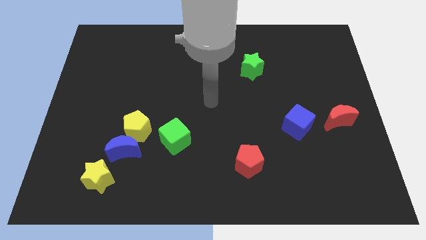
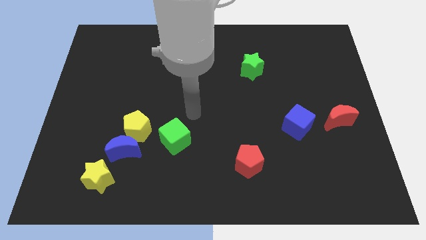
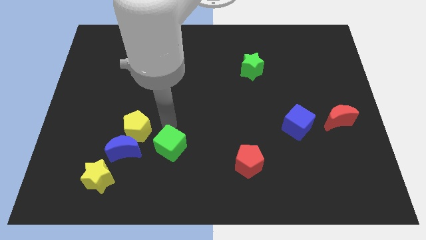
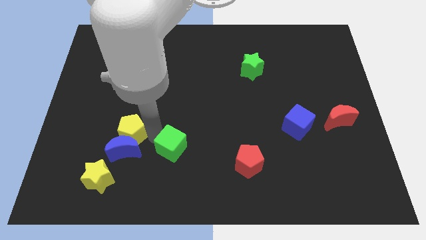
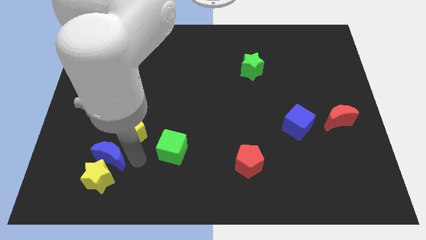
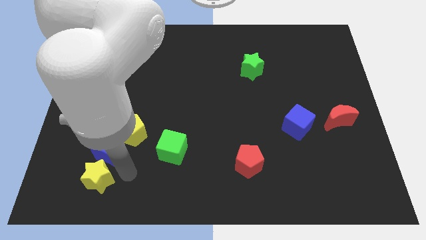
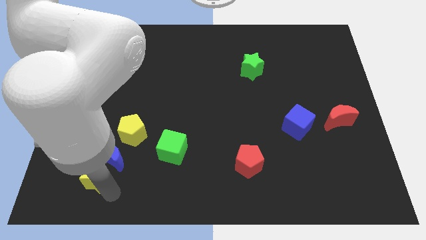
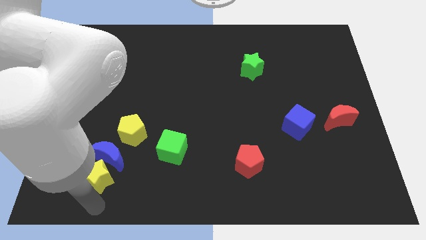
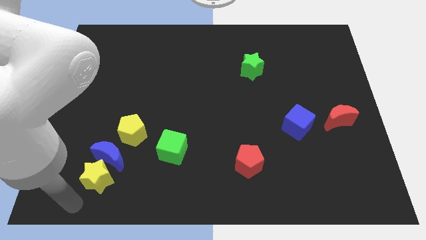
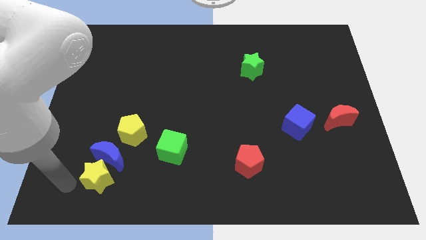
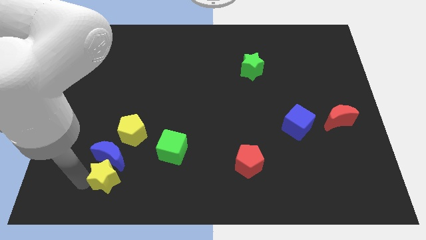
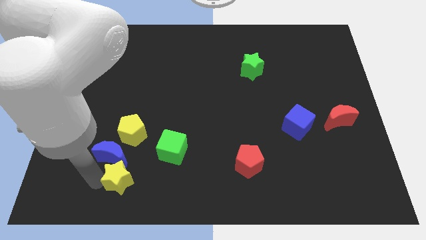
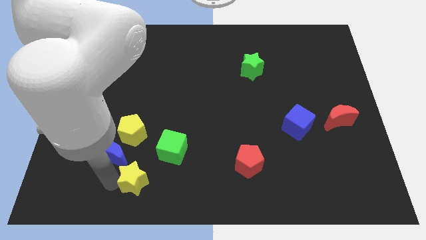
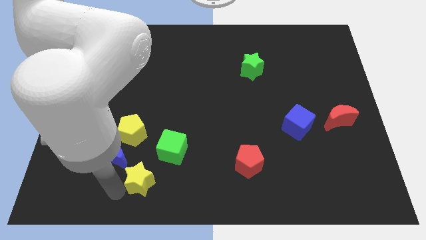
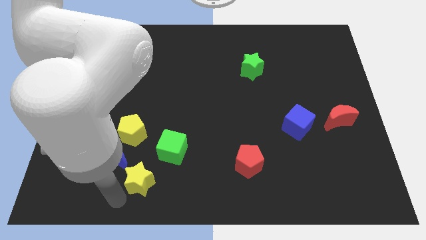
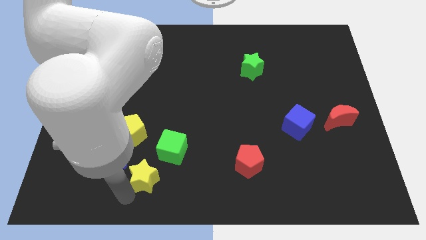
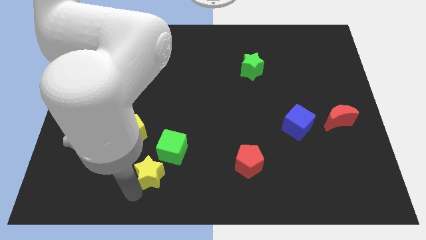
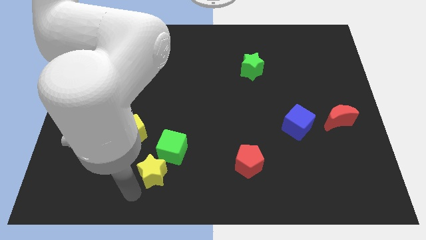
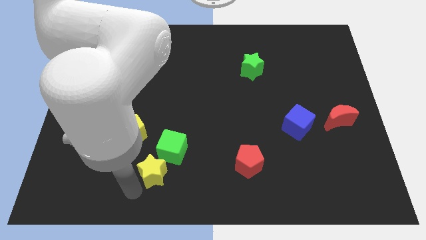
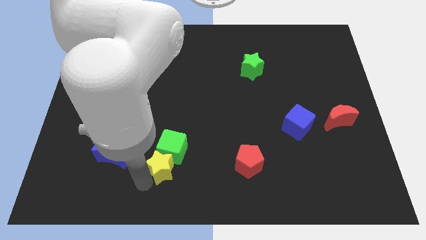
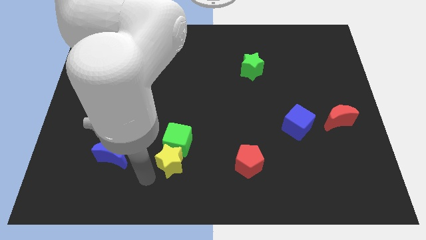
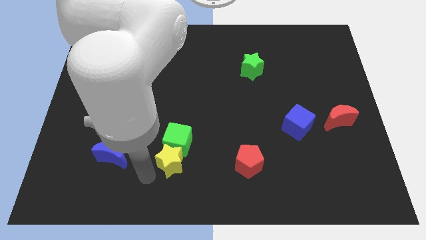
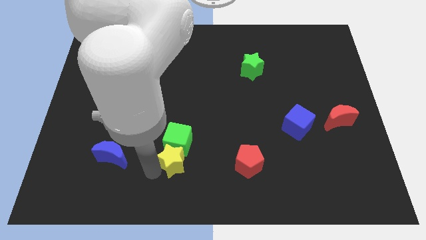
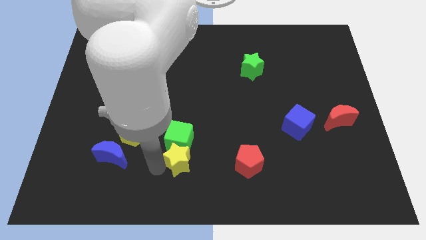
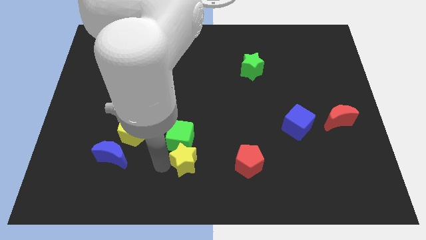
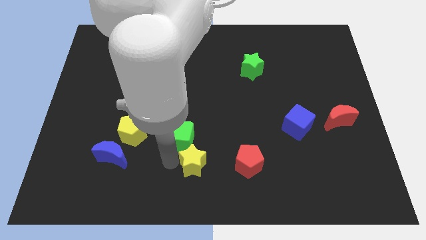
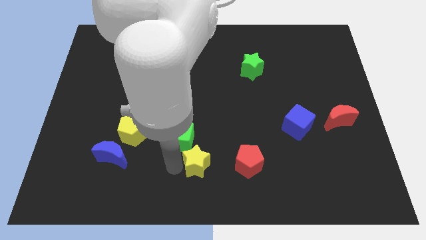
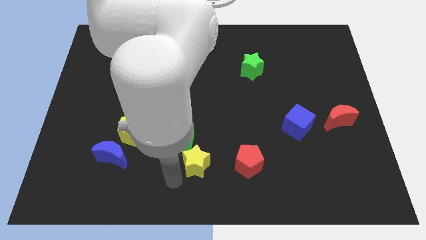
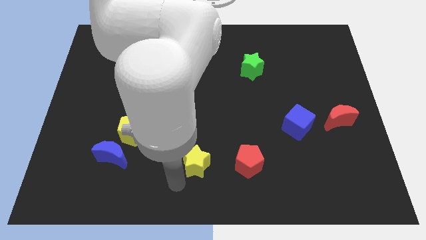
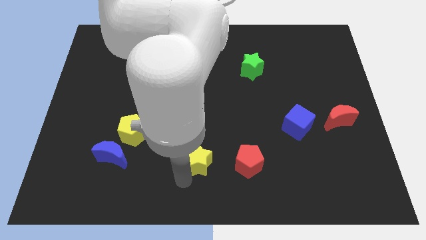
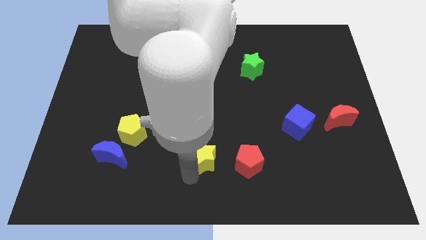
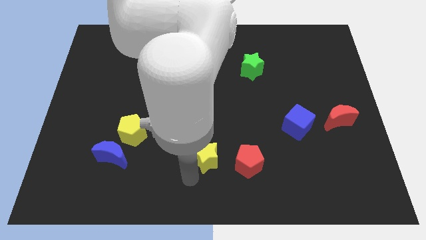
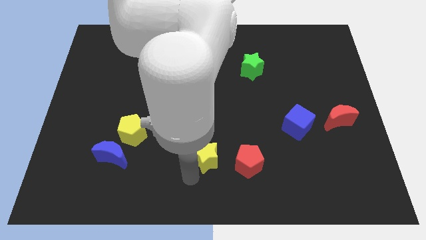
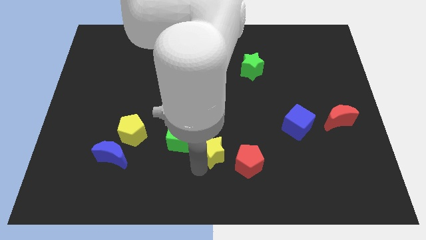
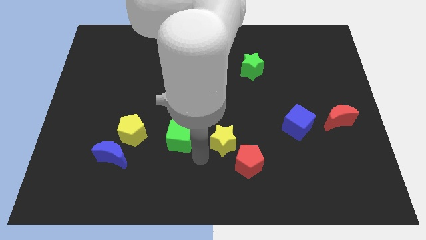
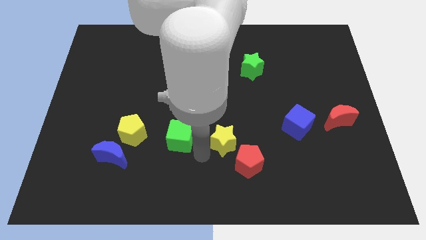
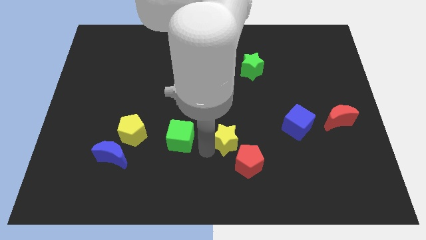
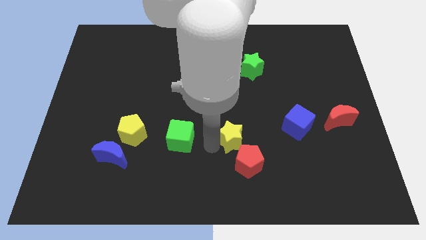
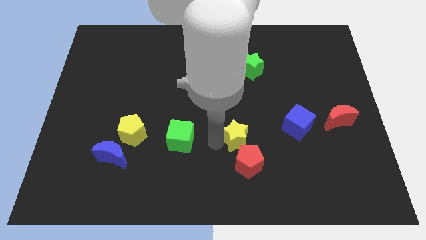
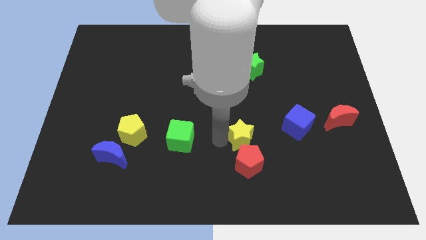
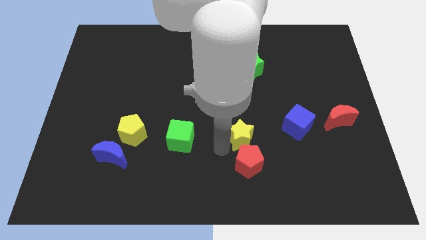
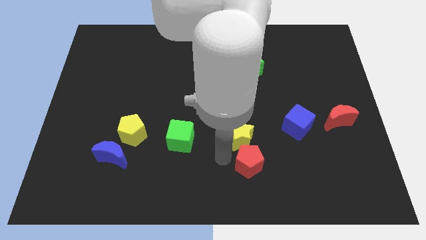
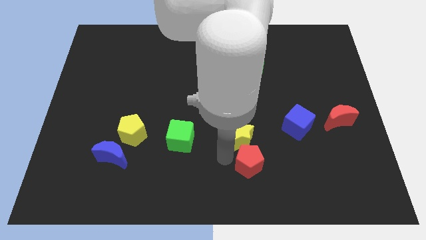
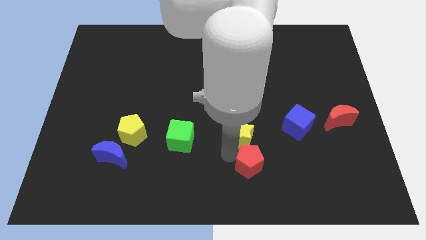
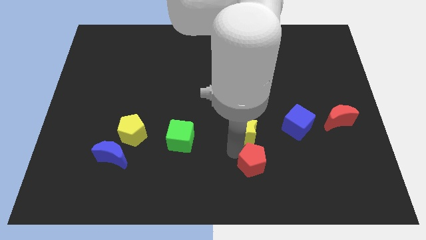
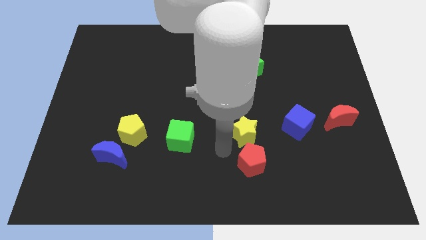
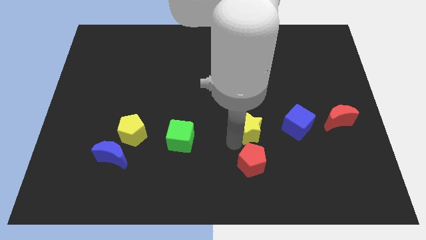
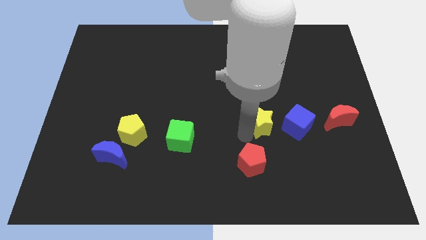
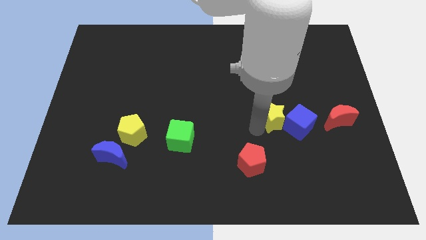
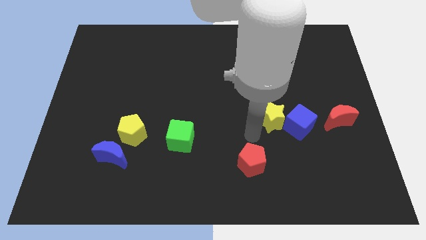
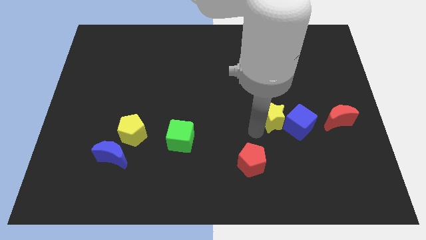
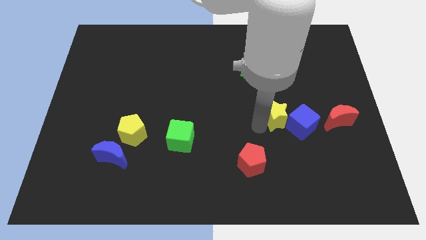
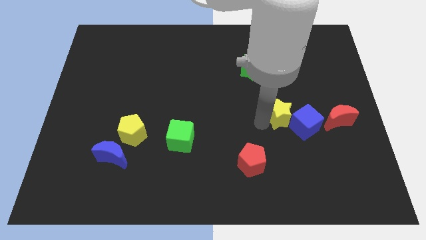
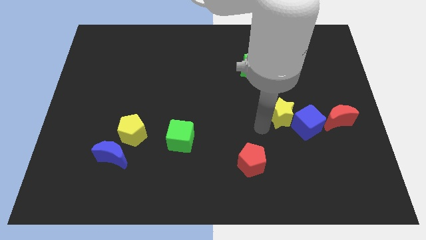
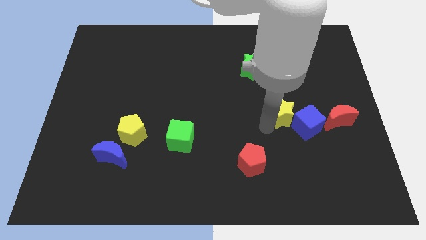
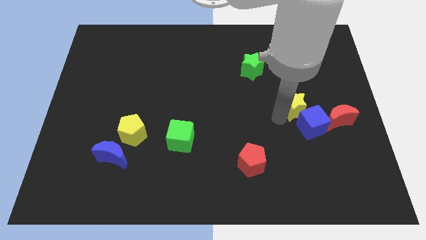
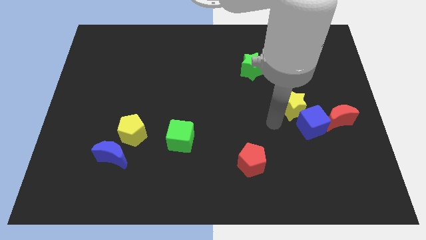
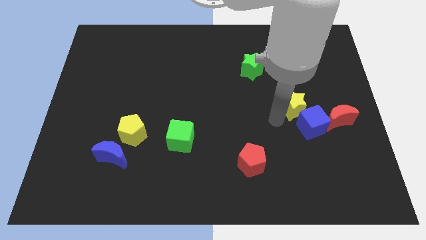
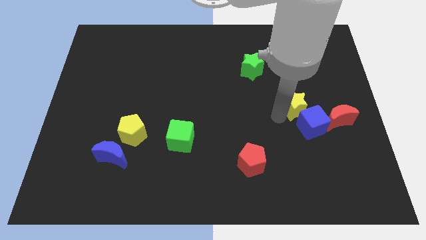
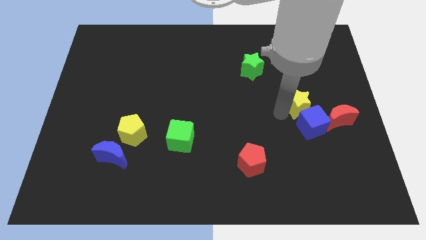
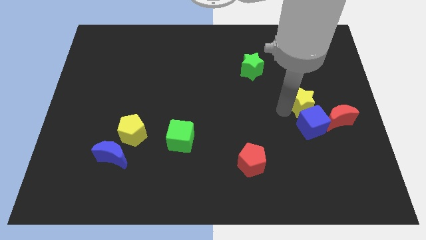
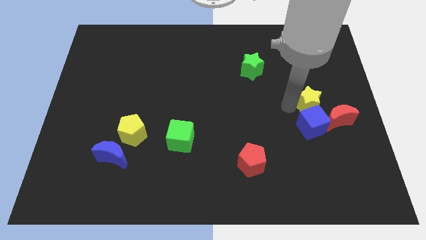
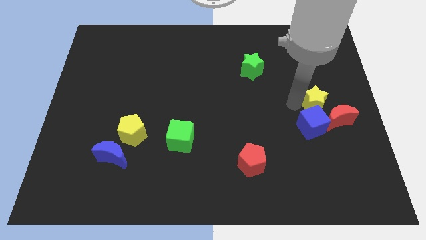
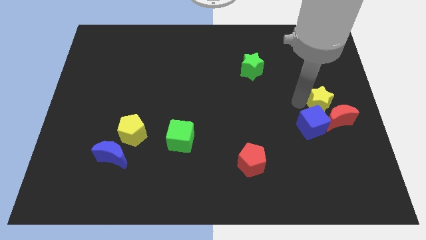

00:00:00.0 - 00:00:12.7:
push the yellow star to the right side
